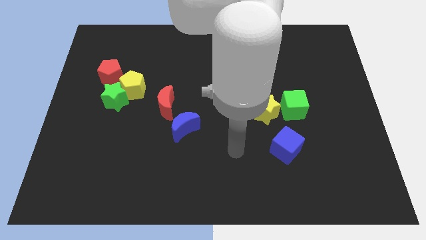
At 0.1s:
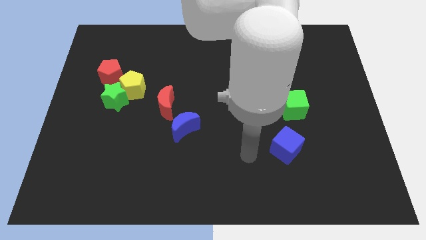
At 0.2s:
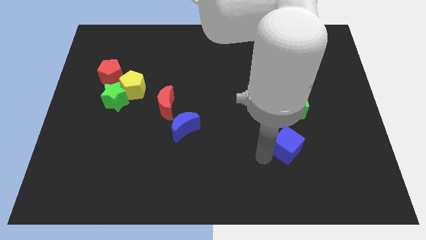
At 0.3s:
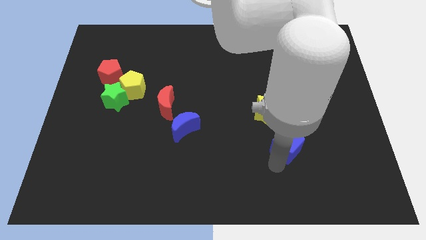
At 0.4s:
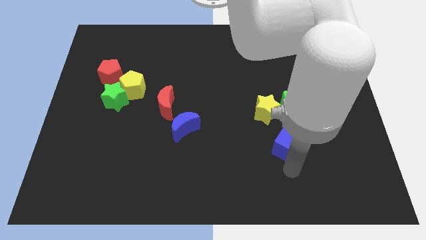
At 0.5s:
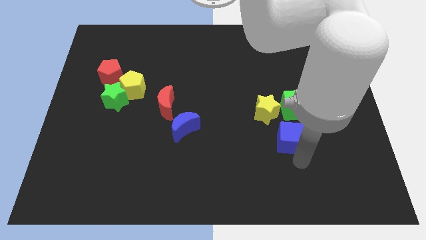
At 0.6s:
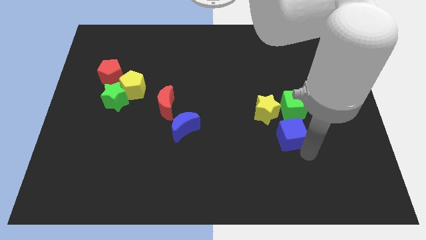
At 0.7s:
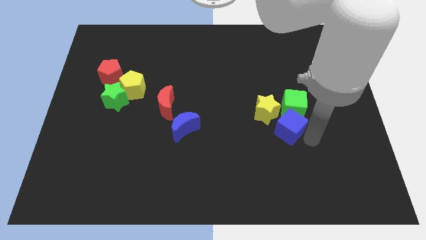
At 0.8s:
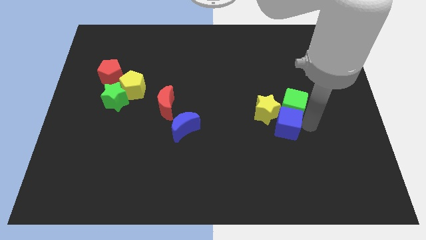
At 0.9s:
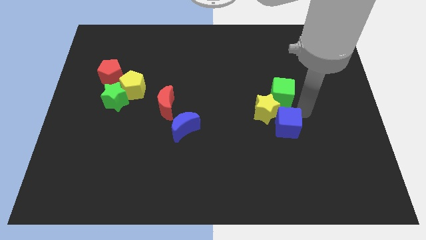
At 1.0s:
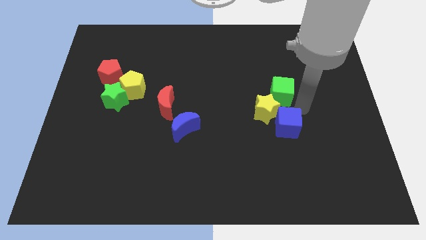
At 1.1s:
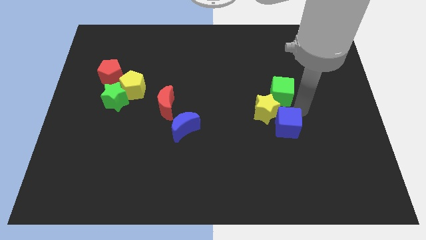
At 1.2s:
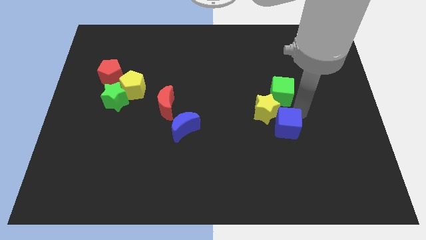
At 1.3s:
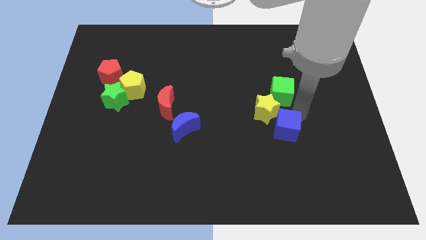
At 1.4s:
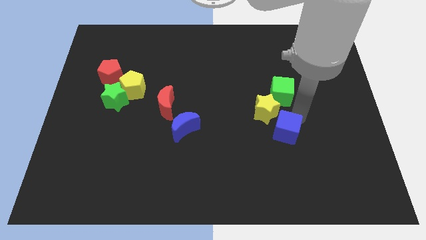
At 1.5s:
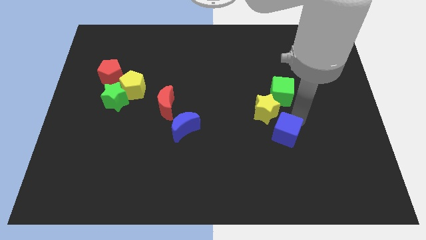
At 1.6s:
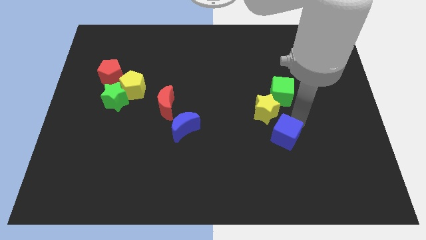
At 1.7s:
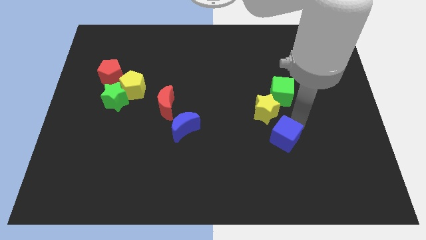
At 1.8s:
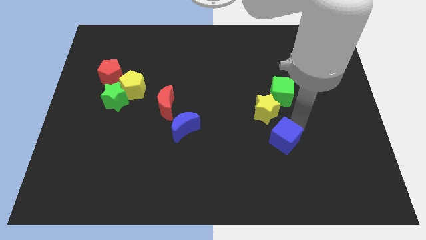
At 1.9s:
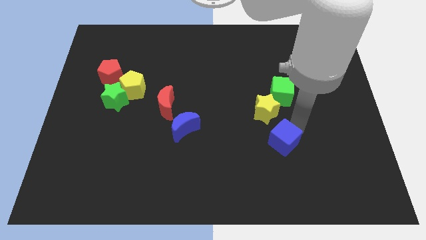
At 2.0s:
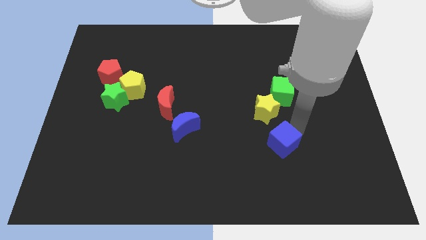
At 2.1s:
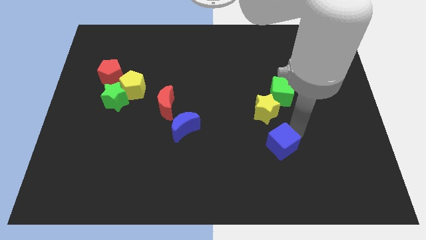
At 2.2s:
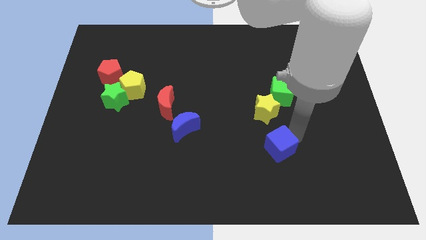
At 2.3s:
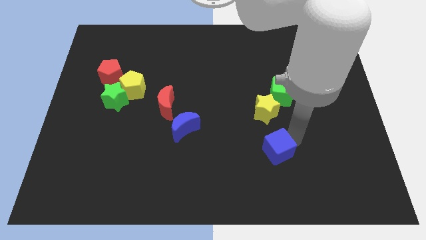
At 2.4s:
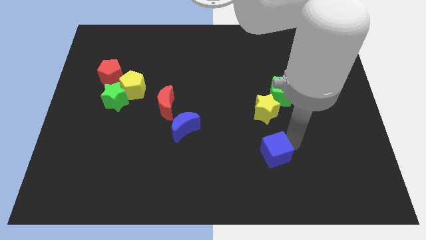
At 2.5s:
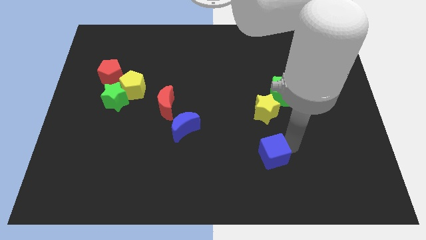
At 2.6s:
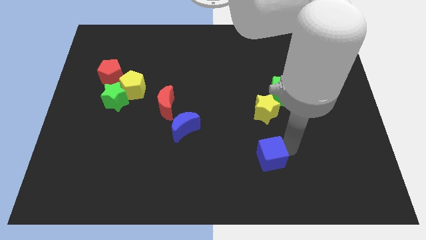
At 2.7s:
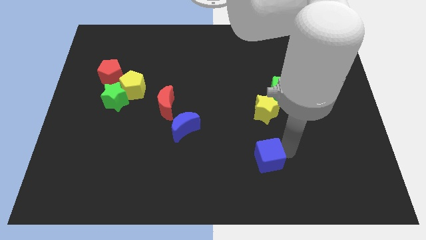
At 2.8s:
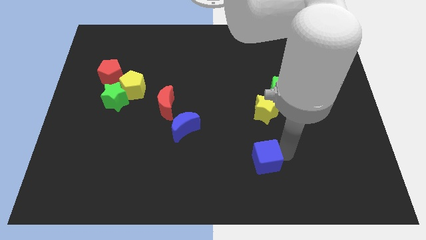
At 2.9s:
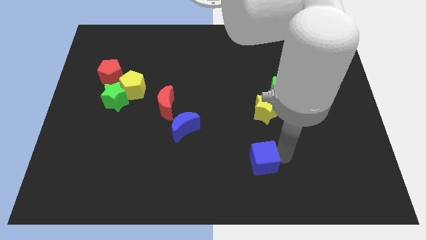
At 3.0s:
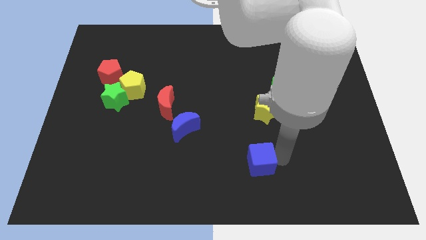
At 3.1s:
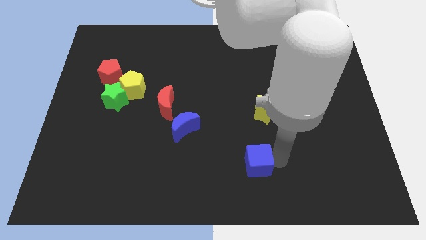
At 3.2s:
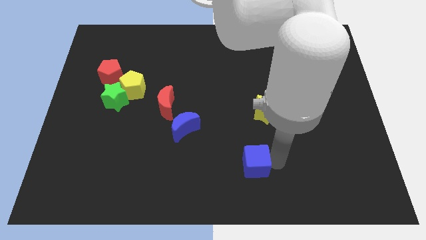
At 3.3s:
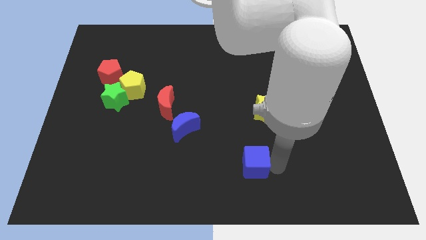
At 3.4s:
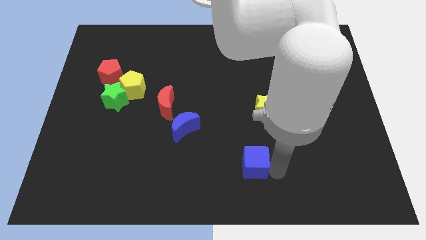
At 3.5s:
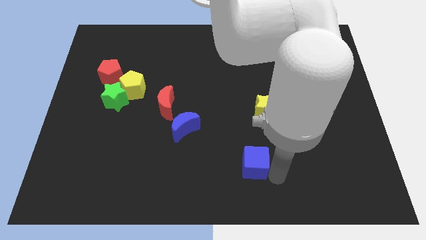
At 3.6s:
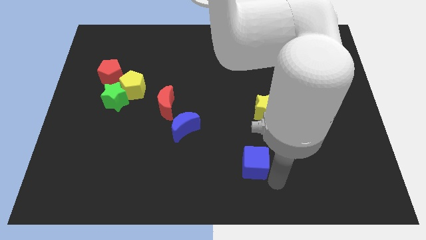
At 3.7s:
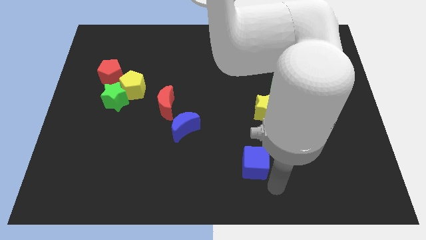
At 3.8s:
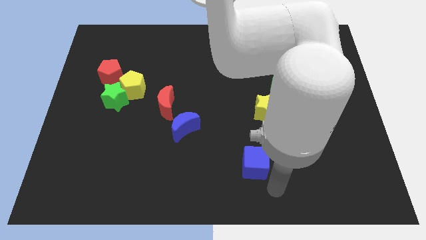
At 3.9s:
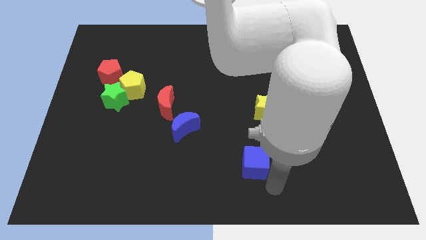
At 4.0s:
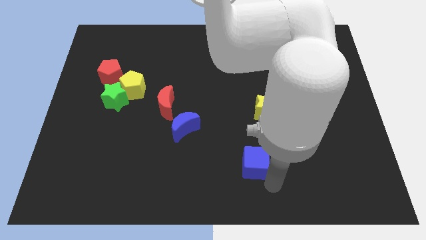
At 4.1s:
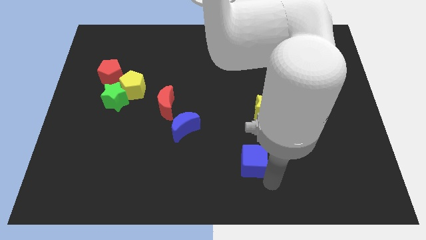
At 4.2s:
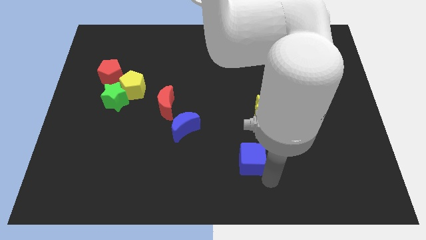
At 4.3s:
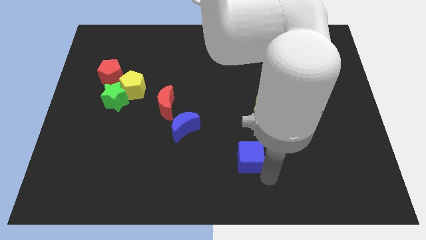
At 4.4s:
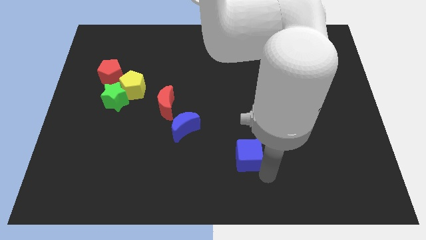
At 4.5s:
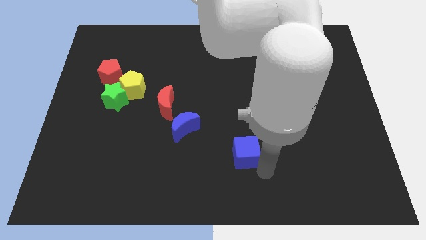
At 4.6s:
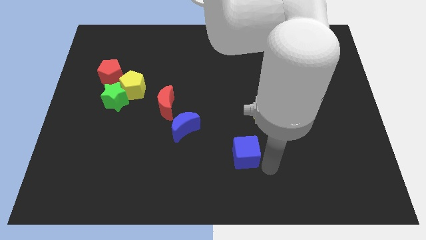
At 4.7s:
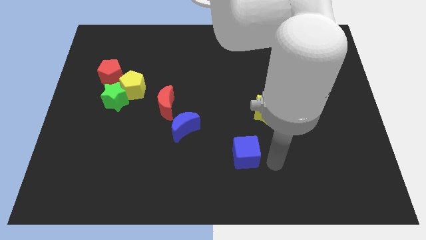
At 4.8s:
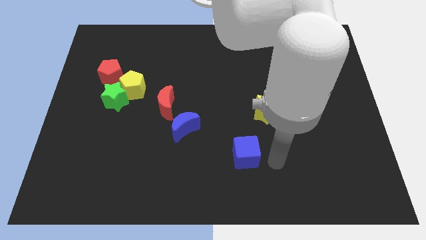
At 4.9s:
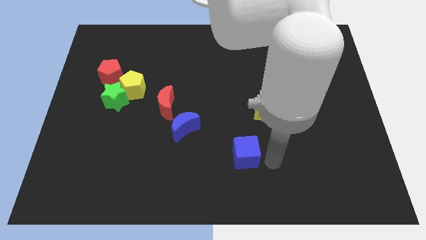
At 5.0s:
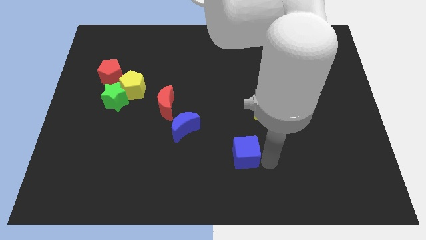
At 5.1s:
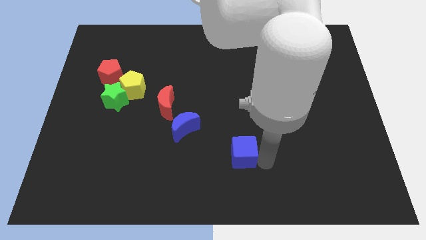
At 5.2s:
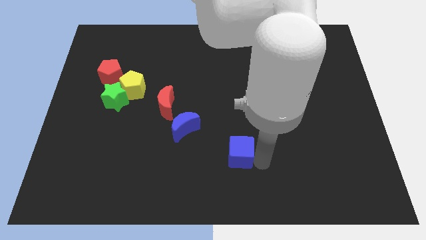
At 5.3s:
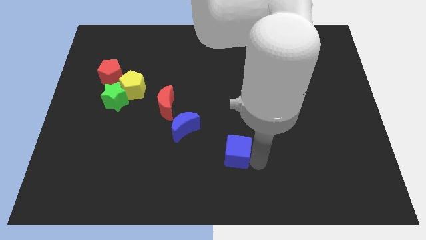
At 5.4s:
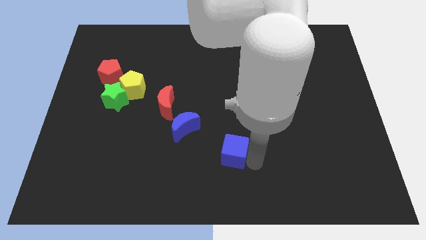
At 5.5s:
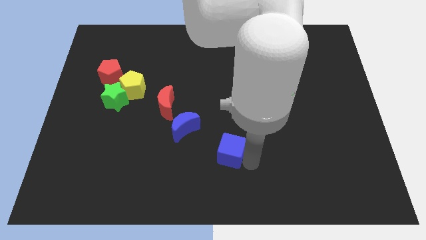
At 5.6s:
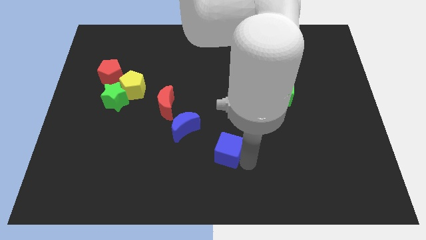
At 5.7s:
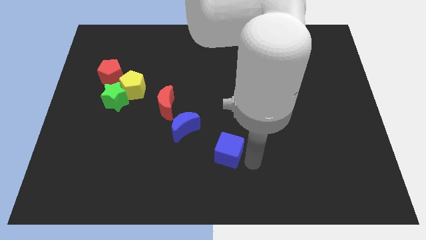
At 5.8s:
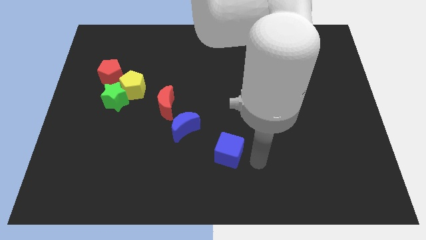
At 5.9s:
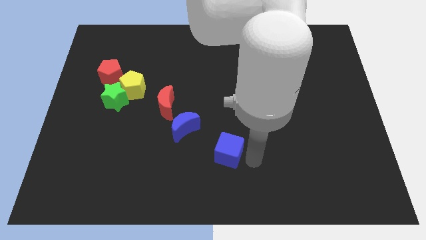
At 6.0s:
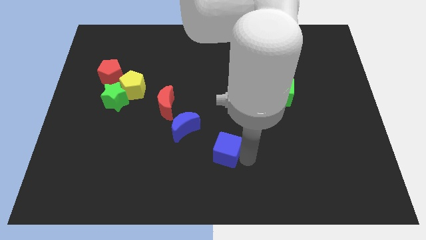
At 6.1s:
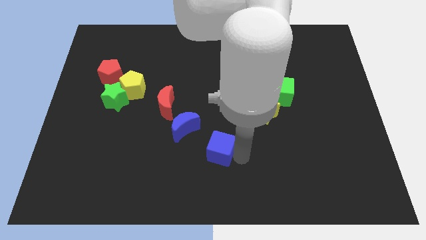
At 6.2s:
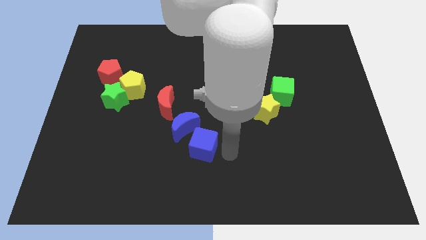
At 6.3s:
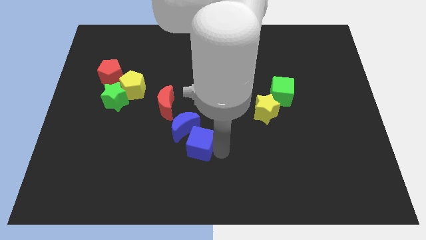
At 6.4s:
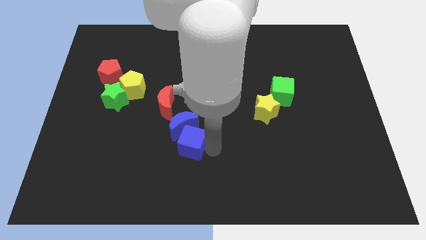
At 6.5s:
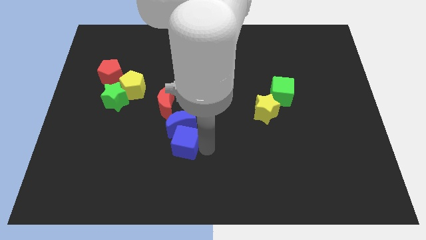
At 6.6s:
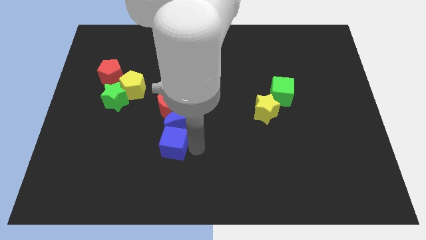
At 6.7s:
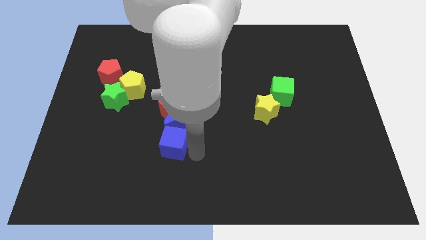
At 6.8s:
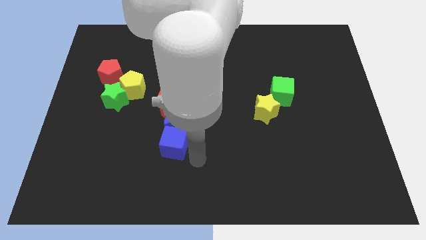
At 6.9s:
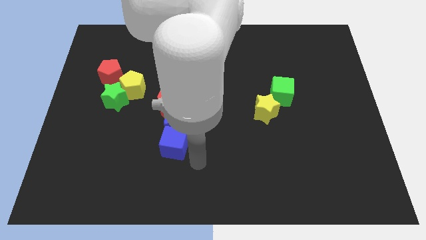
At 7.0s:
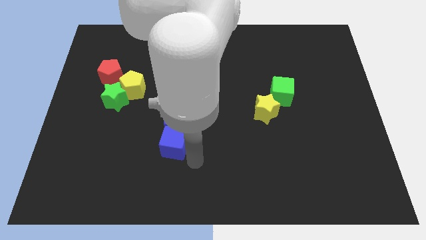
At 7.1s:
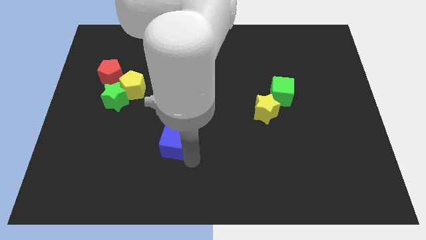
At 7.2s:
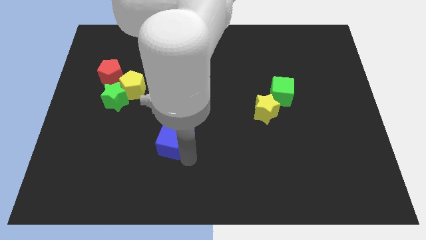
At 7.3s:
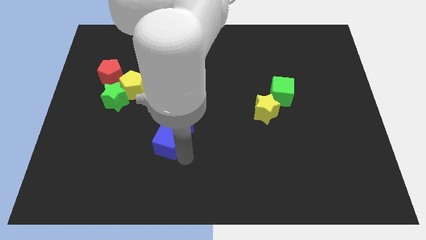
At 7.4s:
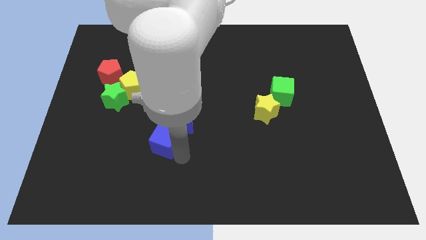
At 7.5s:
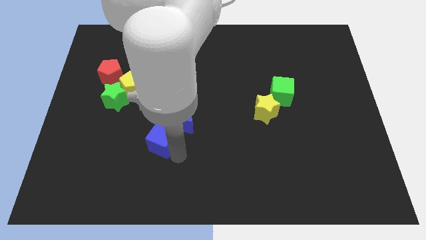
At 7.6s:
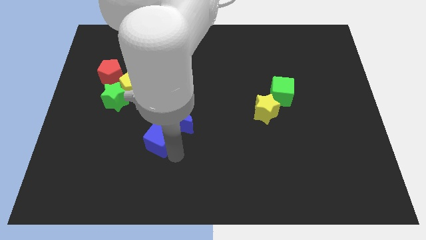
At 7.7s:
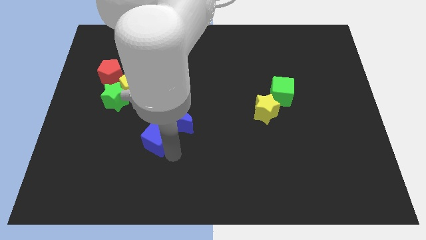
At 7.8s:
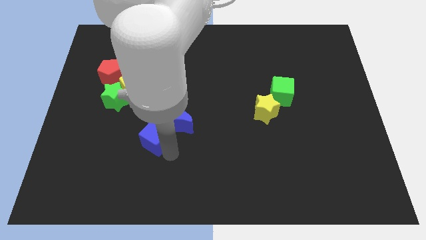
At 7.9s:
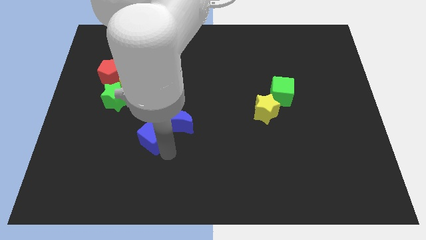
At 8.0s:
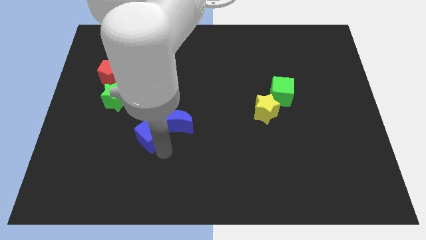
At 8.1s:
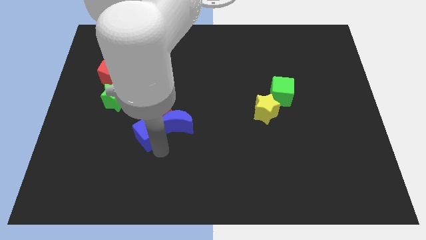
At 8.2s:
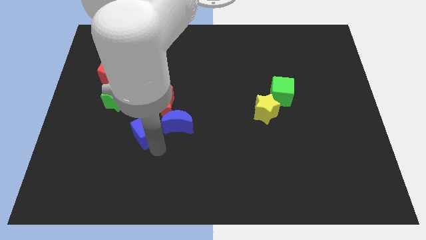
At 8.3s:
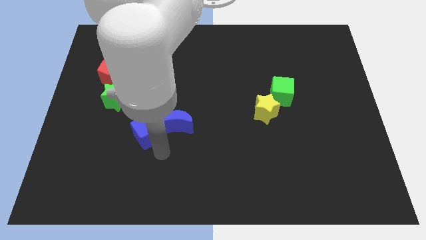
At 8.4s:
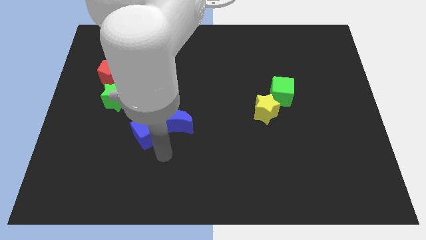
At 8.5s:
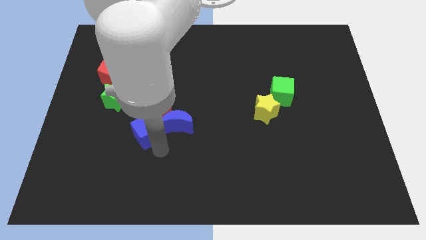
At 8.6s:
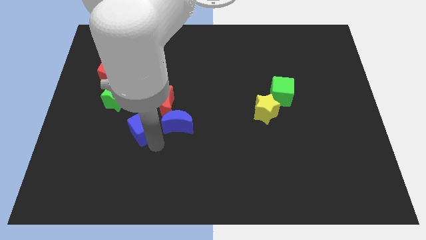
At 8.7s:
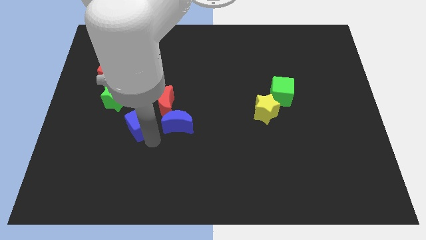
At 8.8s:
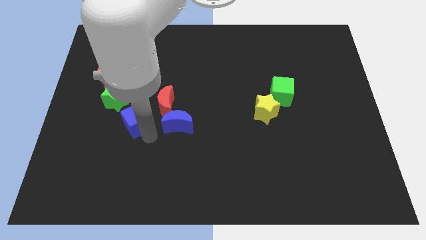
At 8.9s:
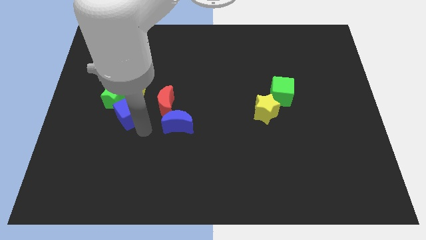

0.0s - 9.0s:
move the blue cube close to the green star
